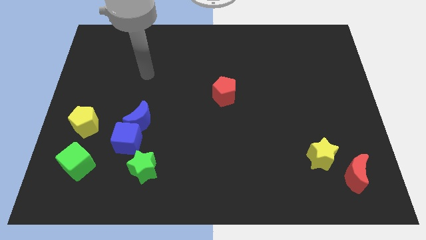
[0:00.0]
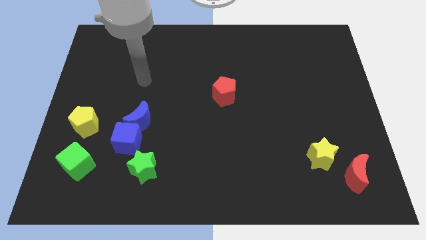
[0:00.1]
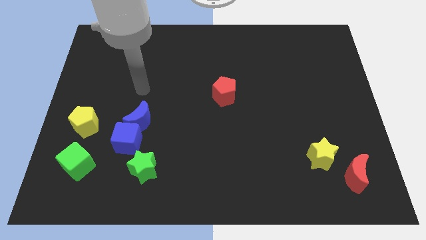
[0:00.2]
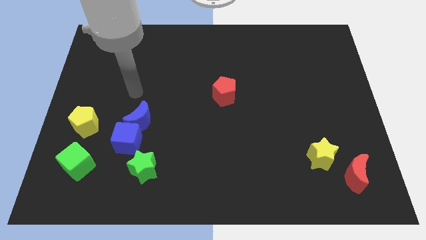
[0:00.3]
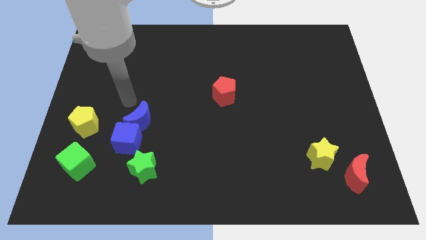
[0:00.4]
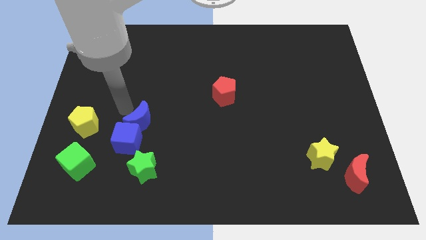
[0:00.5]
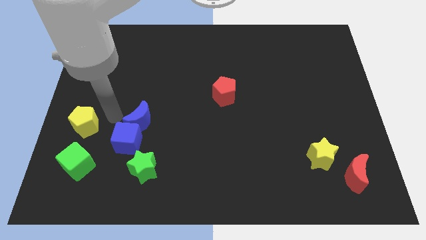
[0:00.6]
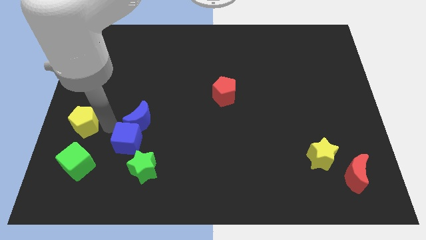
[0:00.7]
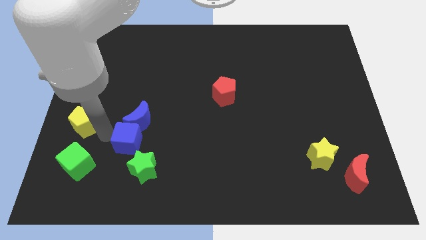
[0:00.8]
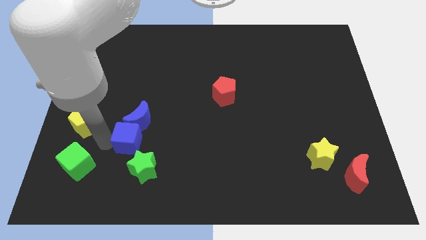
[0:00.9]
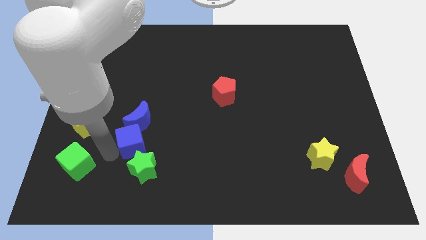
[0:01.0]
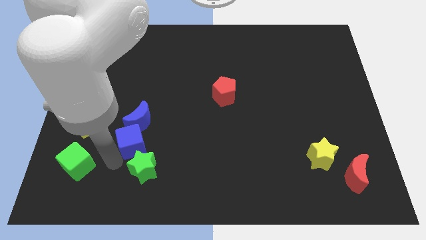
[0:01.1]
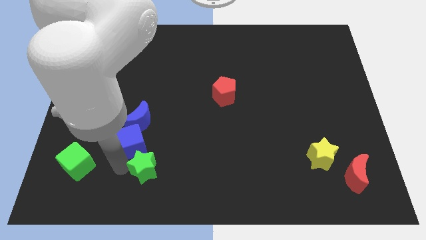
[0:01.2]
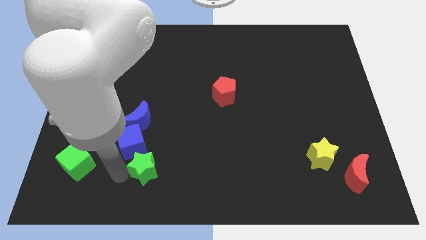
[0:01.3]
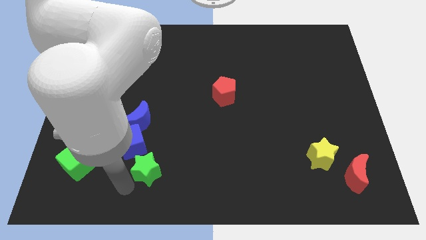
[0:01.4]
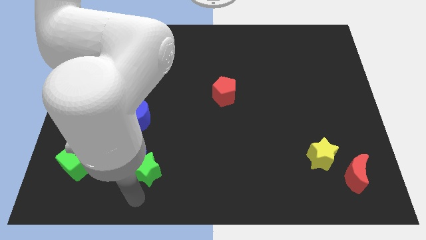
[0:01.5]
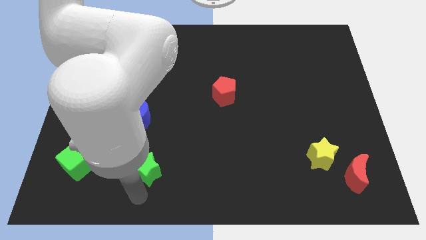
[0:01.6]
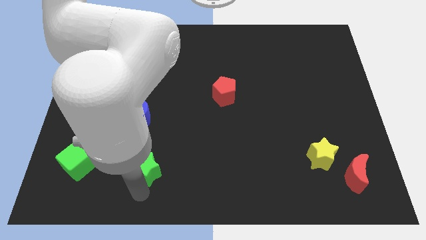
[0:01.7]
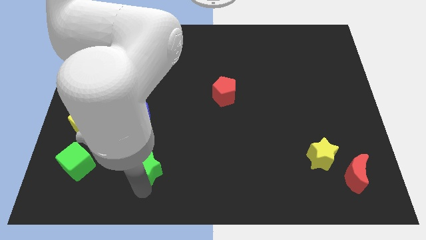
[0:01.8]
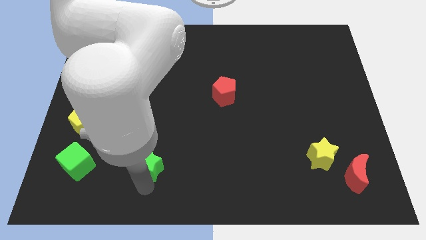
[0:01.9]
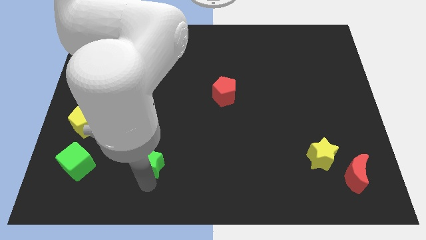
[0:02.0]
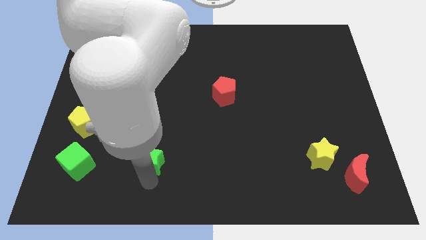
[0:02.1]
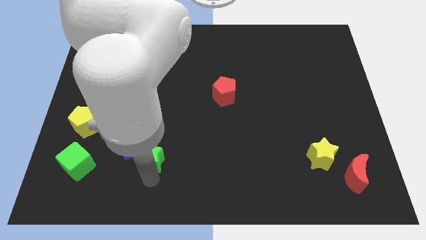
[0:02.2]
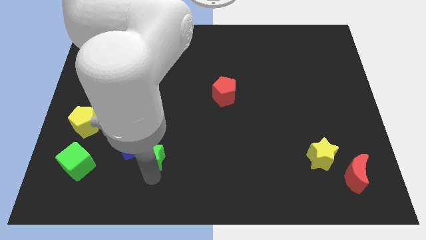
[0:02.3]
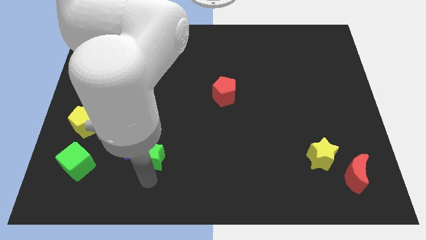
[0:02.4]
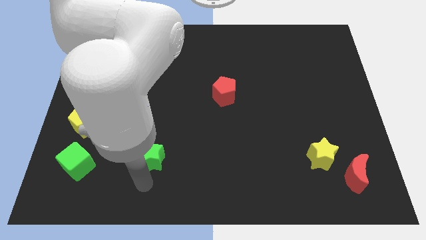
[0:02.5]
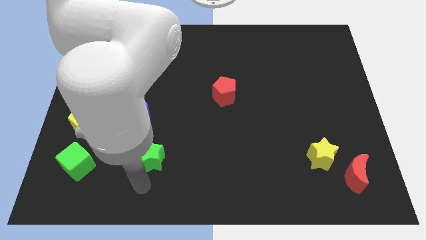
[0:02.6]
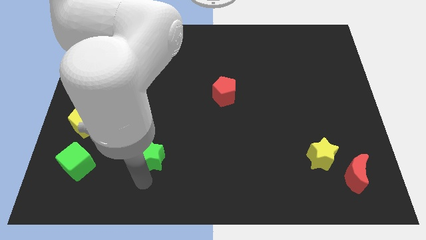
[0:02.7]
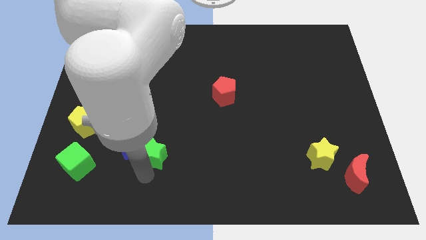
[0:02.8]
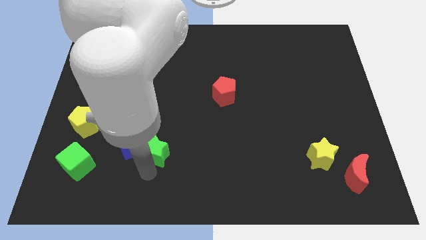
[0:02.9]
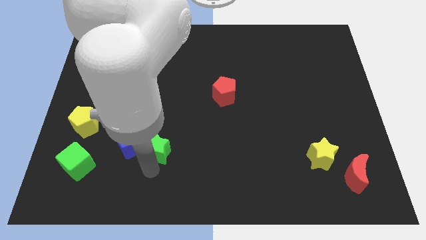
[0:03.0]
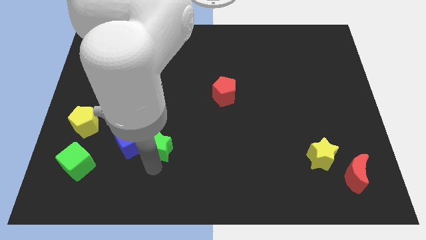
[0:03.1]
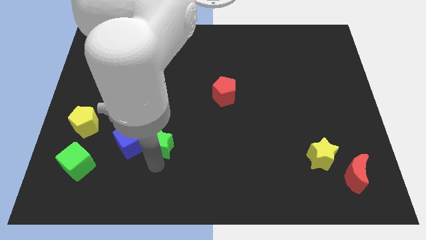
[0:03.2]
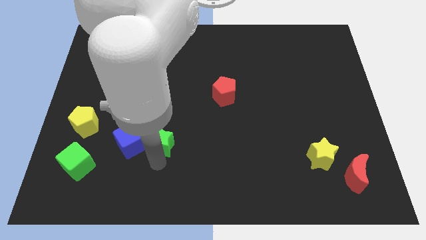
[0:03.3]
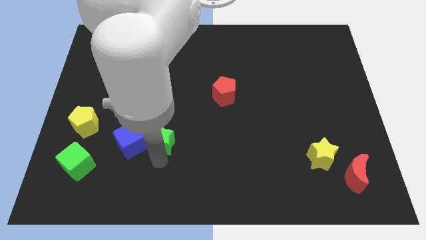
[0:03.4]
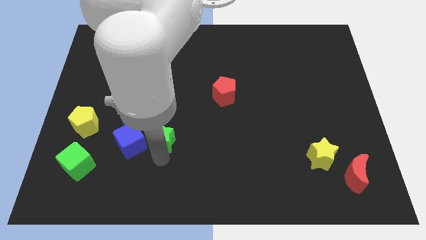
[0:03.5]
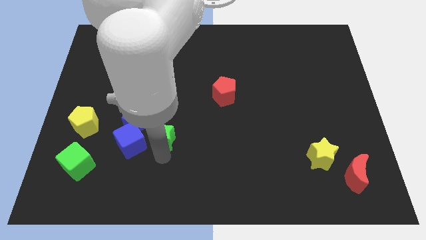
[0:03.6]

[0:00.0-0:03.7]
slightly slide the green star upwards

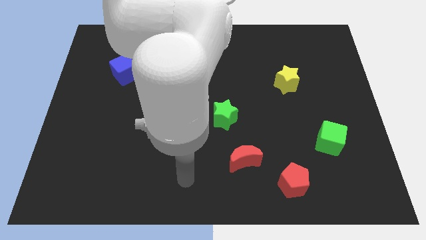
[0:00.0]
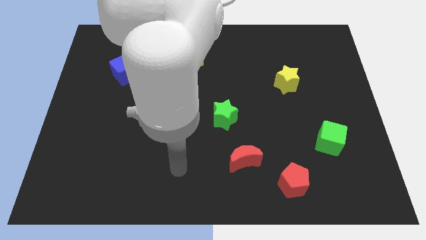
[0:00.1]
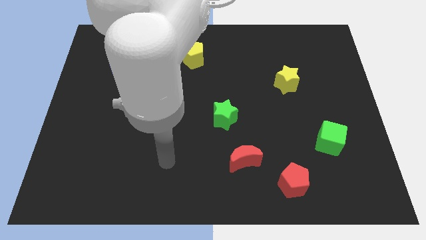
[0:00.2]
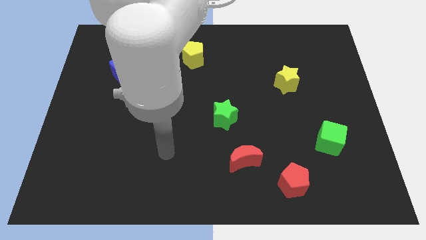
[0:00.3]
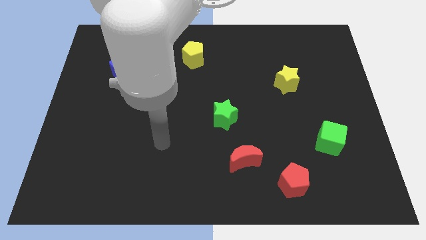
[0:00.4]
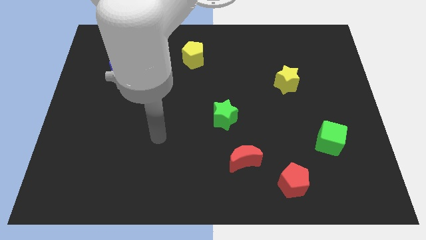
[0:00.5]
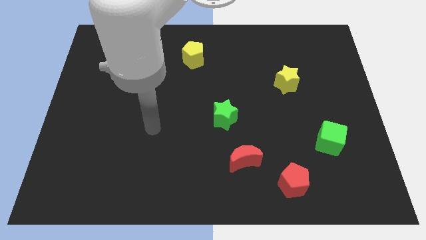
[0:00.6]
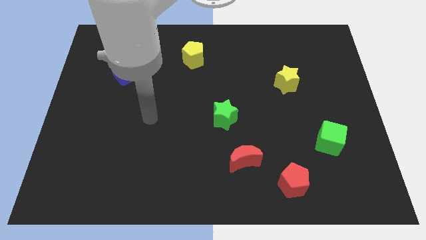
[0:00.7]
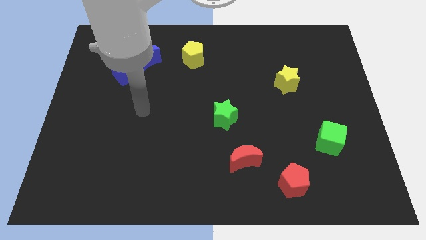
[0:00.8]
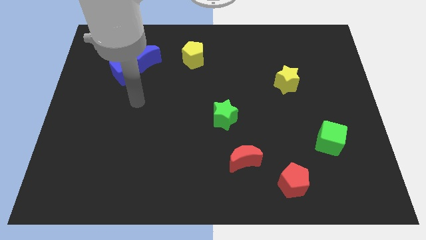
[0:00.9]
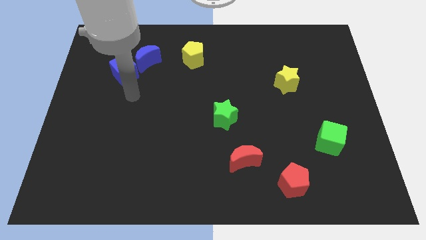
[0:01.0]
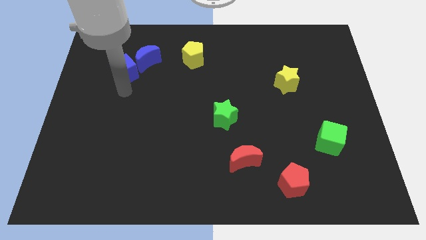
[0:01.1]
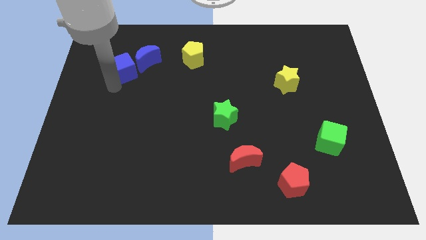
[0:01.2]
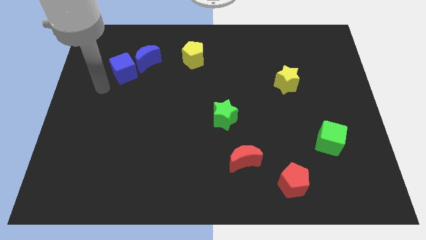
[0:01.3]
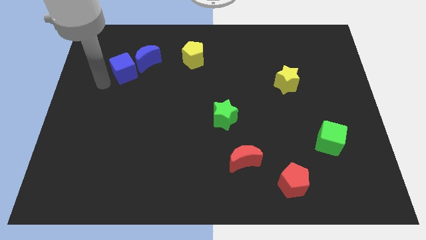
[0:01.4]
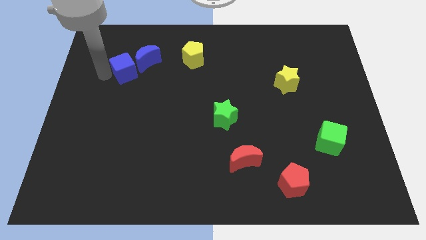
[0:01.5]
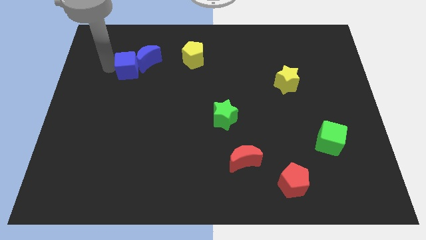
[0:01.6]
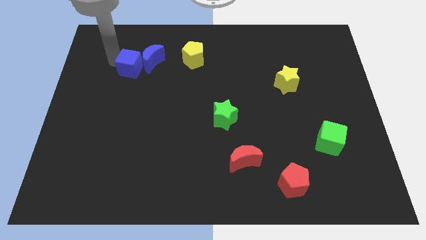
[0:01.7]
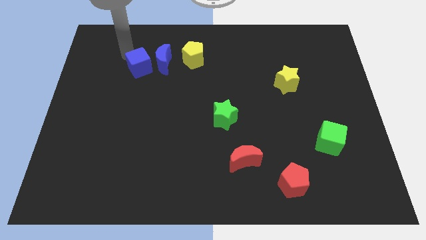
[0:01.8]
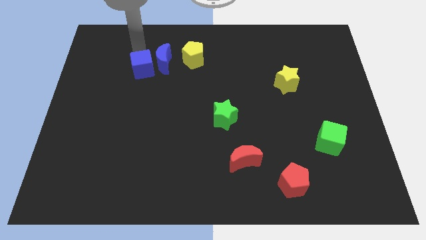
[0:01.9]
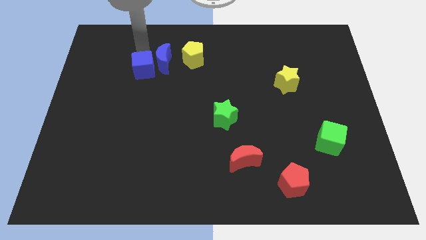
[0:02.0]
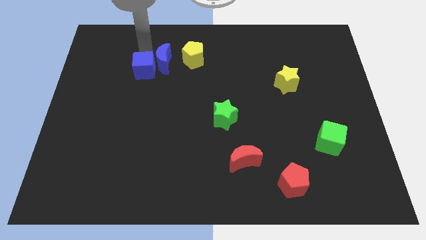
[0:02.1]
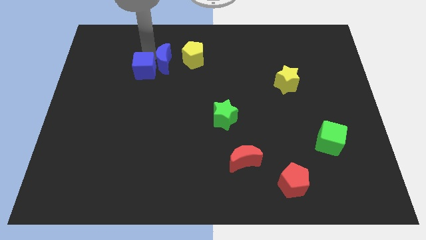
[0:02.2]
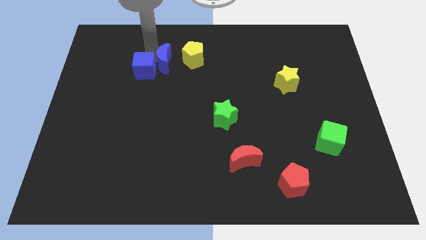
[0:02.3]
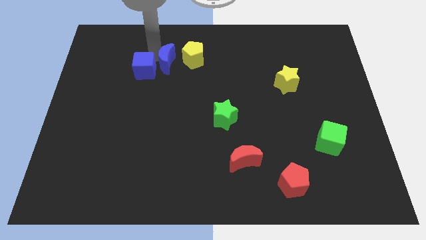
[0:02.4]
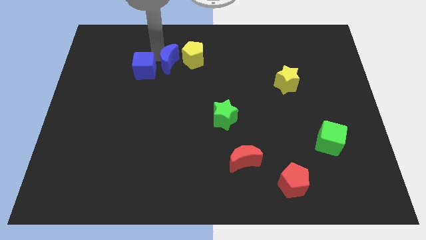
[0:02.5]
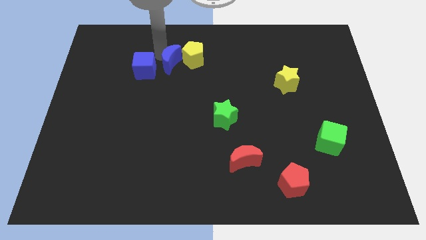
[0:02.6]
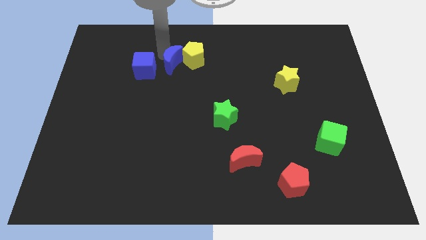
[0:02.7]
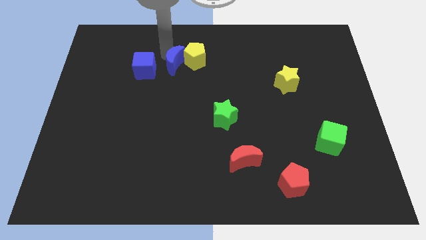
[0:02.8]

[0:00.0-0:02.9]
push the blue moon a little bit to the right

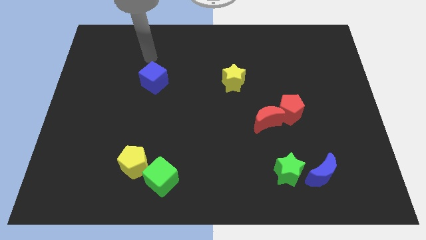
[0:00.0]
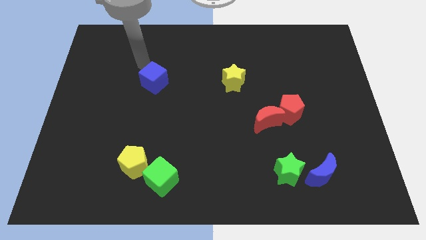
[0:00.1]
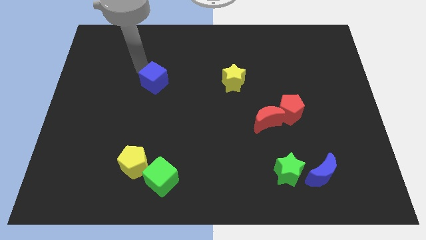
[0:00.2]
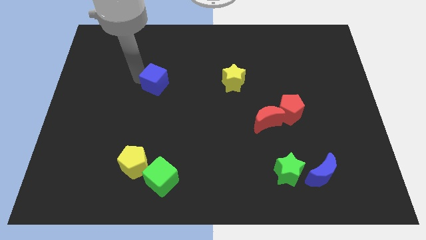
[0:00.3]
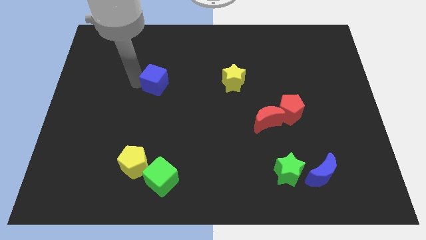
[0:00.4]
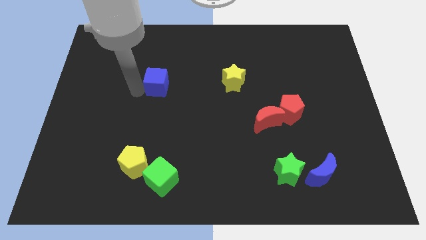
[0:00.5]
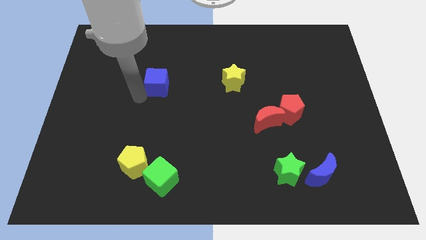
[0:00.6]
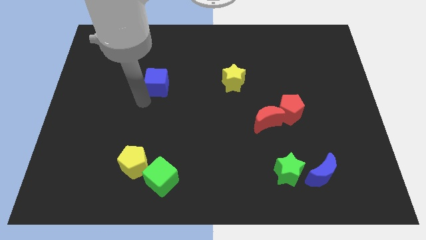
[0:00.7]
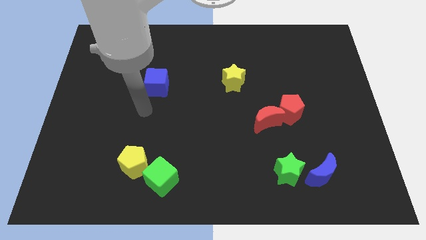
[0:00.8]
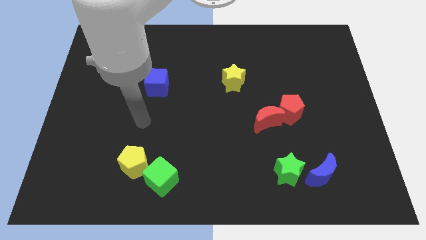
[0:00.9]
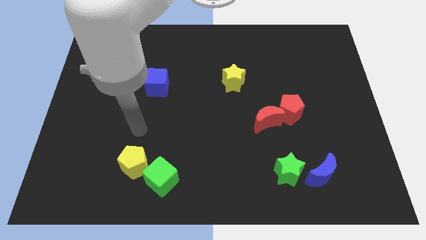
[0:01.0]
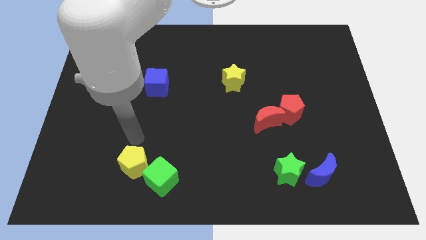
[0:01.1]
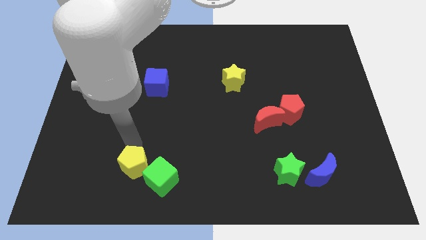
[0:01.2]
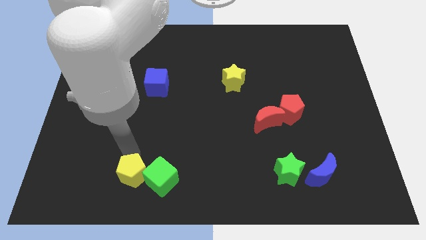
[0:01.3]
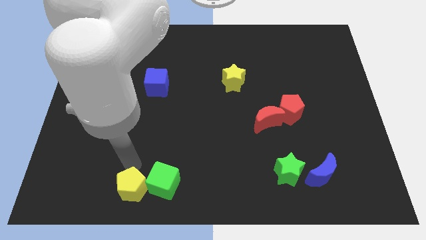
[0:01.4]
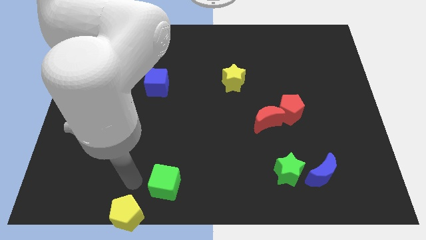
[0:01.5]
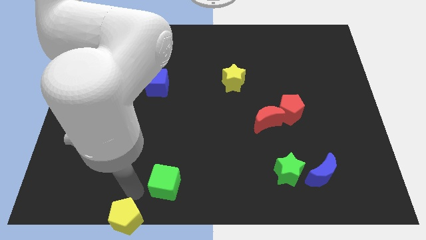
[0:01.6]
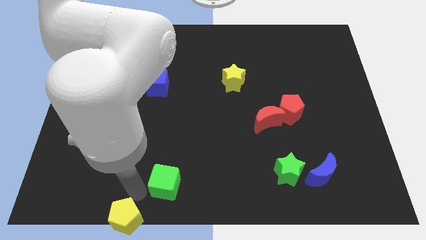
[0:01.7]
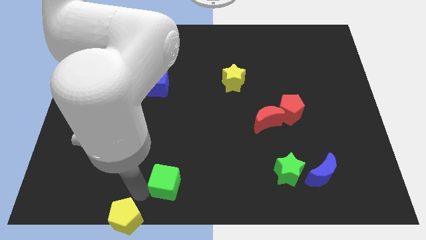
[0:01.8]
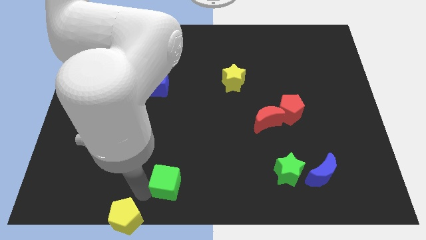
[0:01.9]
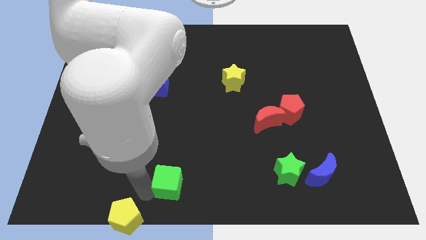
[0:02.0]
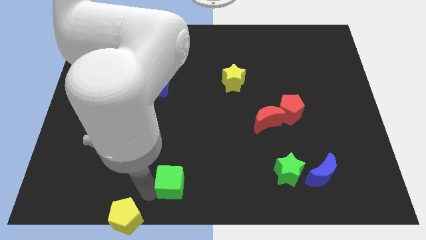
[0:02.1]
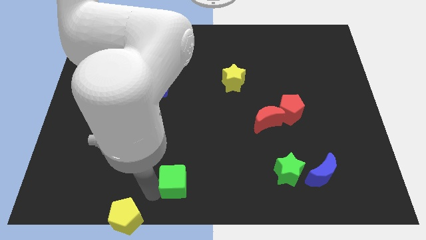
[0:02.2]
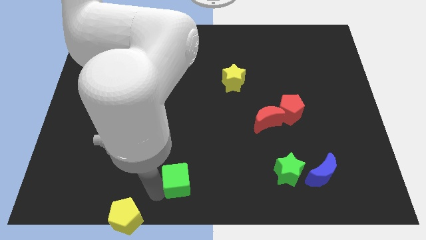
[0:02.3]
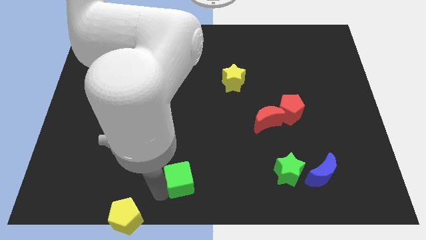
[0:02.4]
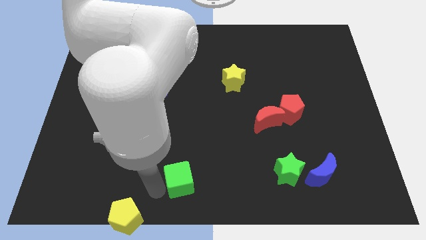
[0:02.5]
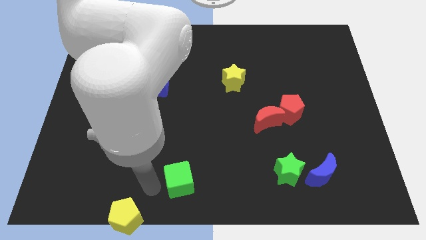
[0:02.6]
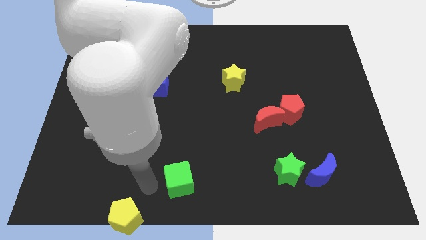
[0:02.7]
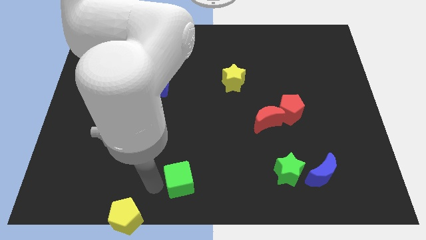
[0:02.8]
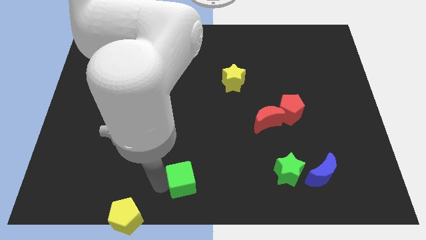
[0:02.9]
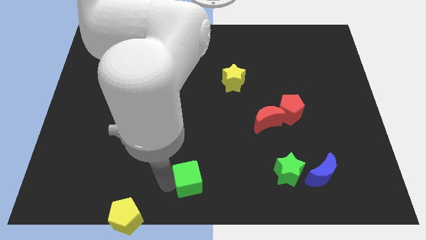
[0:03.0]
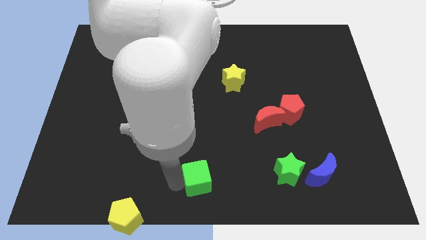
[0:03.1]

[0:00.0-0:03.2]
slide the green cube a little bit right
